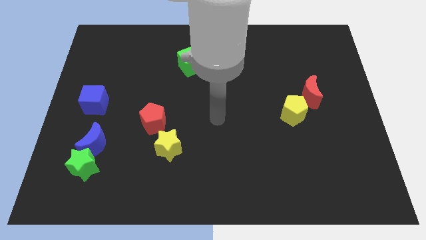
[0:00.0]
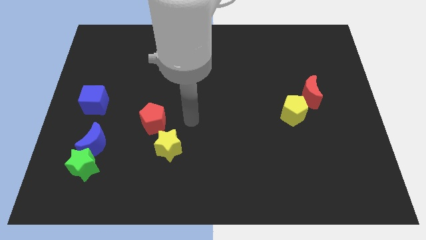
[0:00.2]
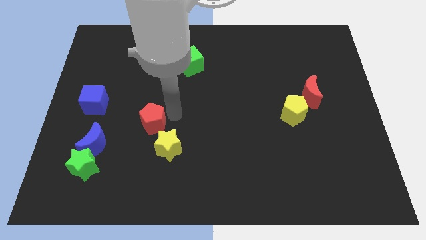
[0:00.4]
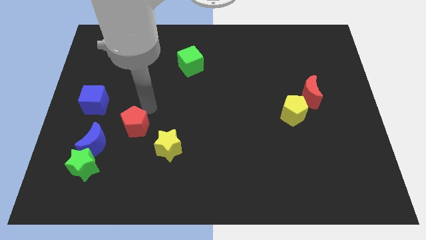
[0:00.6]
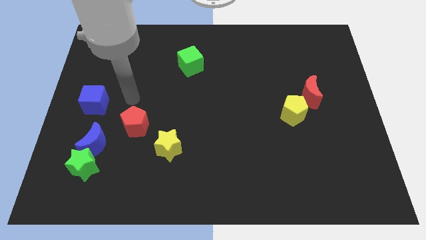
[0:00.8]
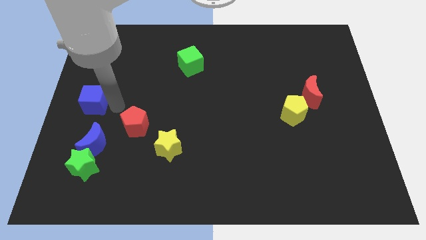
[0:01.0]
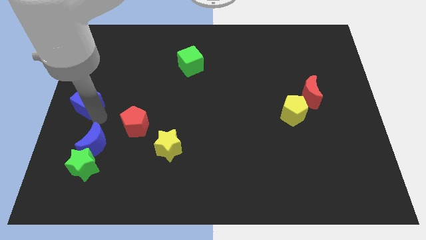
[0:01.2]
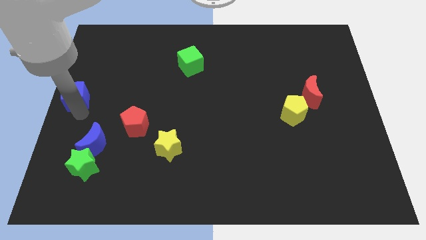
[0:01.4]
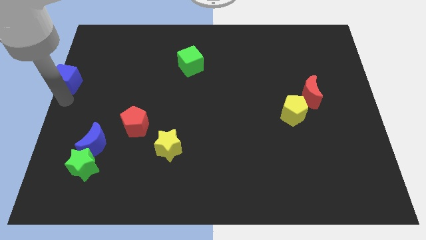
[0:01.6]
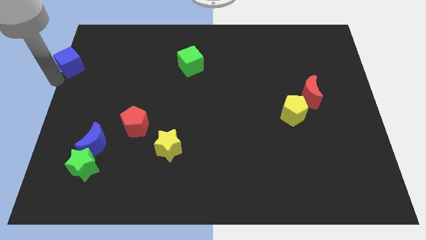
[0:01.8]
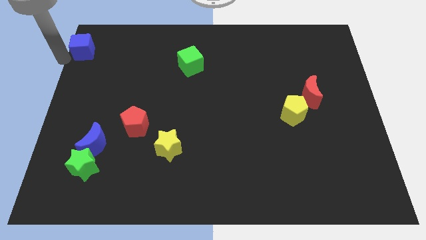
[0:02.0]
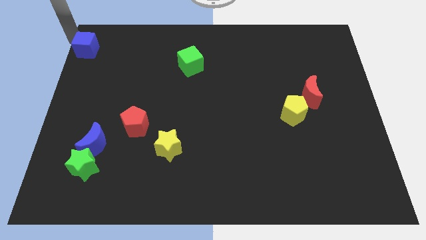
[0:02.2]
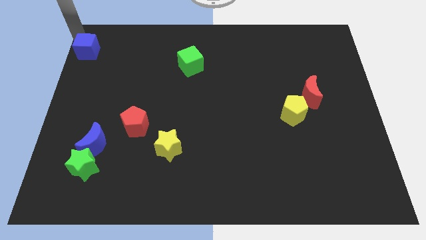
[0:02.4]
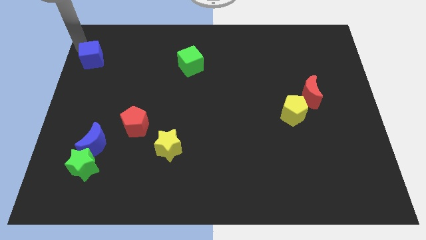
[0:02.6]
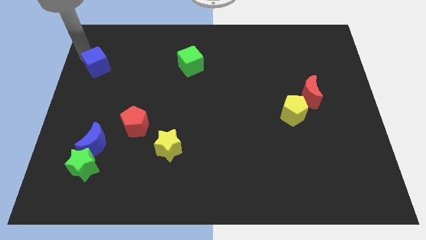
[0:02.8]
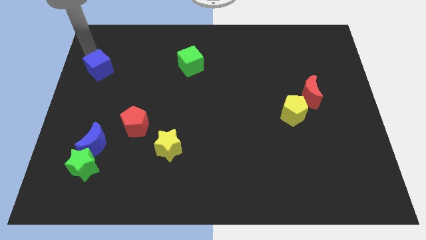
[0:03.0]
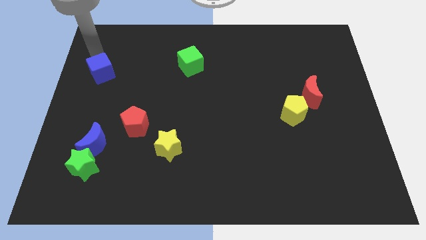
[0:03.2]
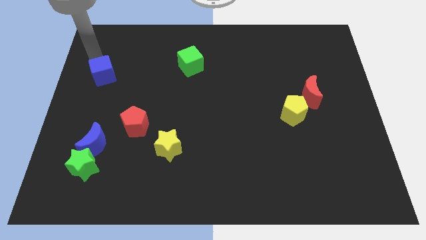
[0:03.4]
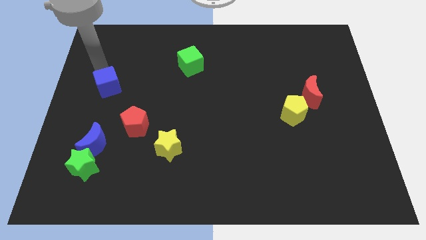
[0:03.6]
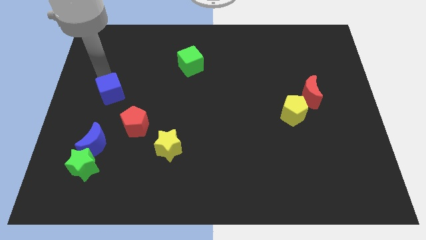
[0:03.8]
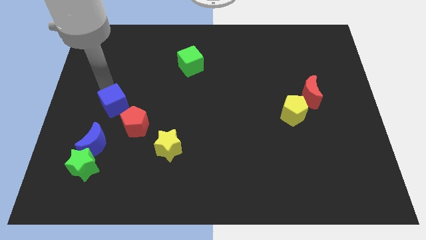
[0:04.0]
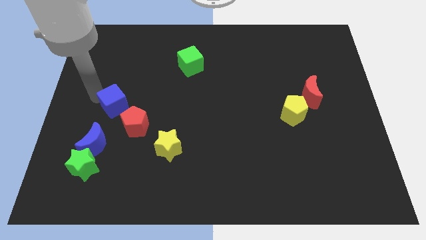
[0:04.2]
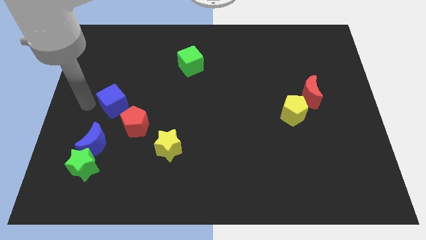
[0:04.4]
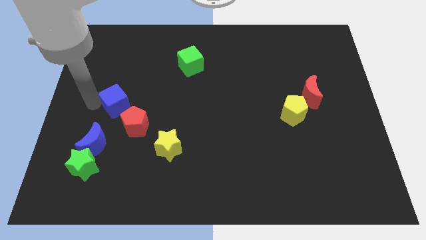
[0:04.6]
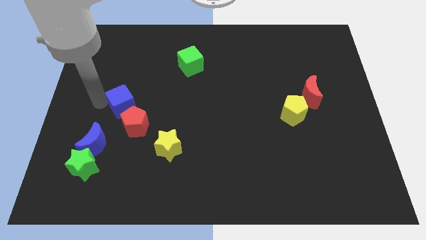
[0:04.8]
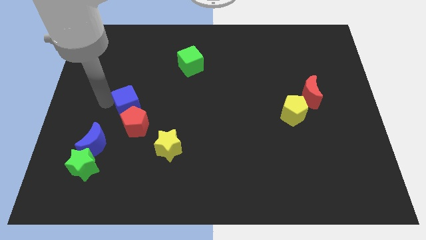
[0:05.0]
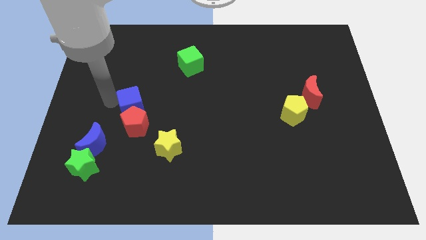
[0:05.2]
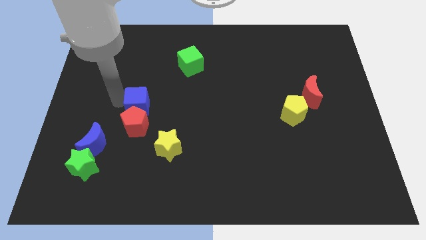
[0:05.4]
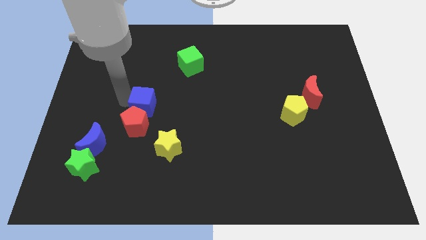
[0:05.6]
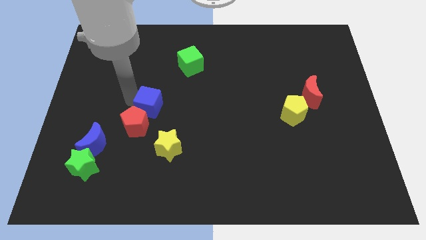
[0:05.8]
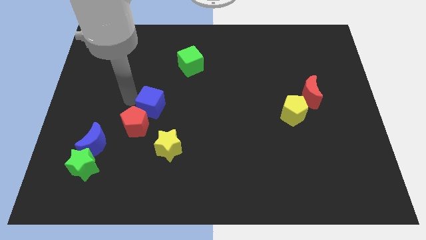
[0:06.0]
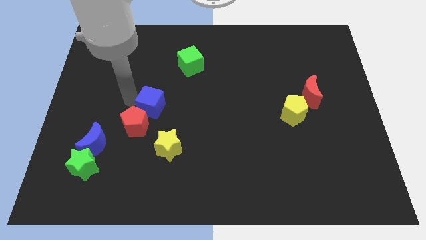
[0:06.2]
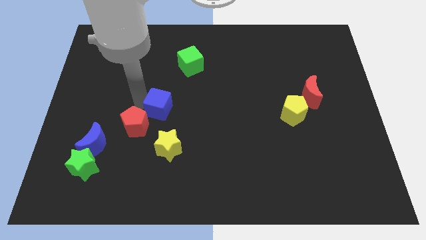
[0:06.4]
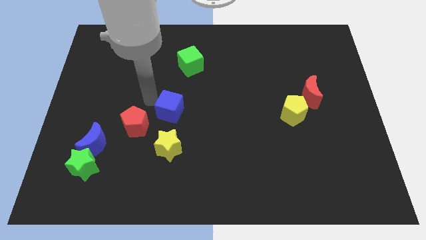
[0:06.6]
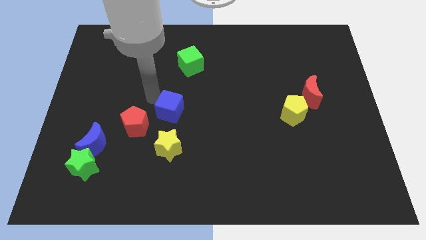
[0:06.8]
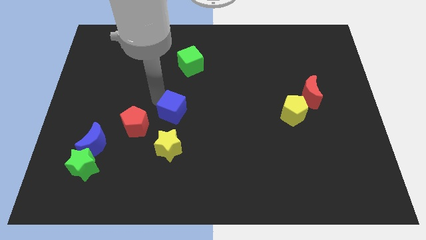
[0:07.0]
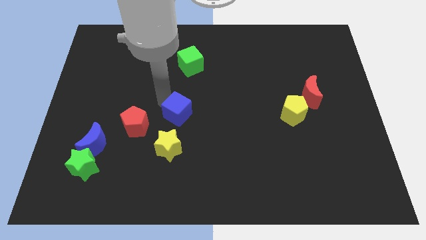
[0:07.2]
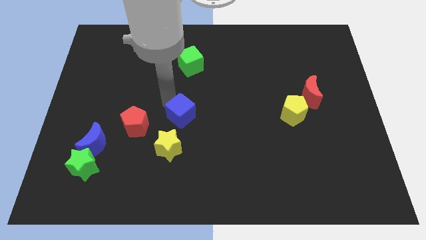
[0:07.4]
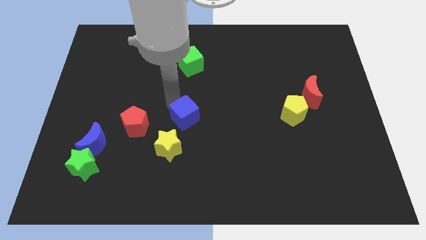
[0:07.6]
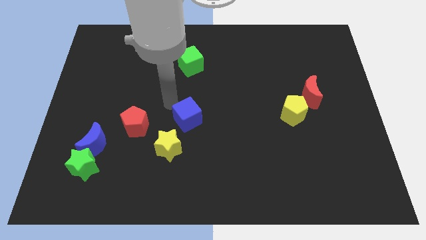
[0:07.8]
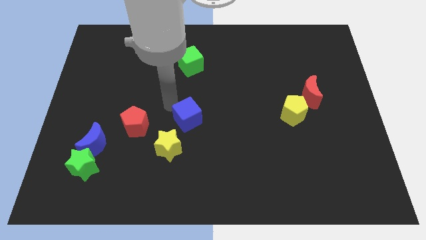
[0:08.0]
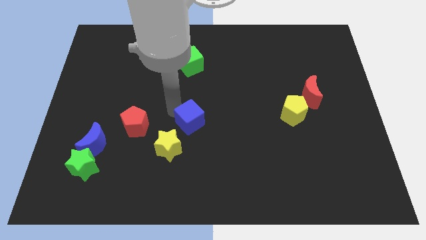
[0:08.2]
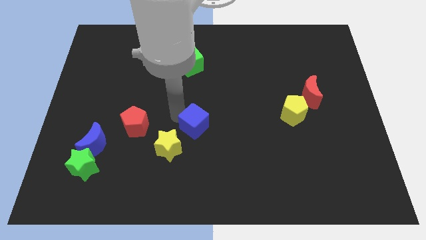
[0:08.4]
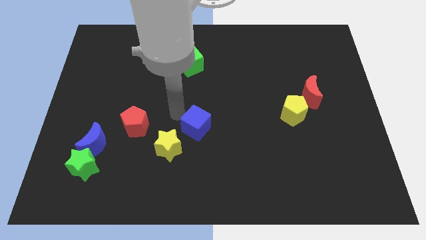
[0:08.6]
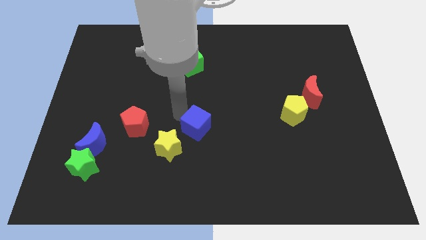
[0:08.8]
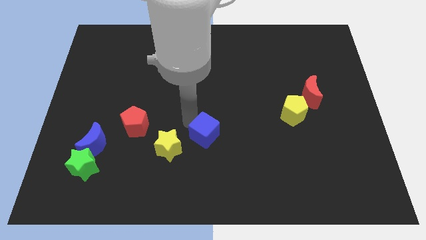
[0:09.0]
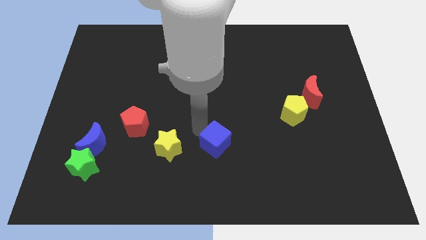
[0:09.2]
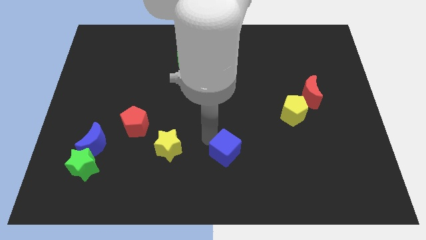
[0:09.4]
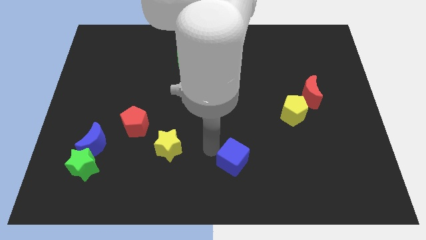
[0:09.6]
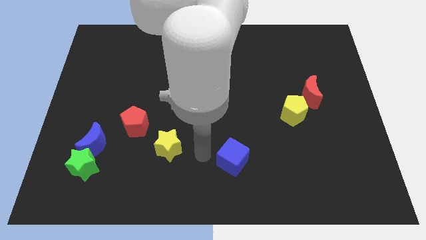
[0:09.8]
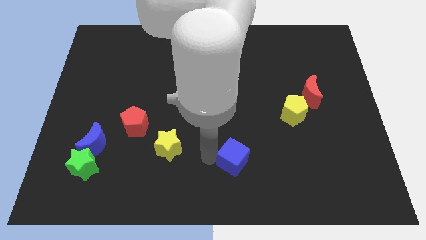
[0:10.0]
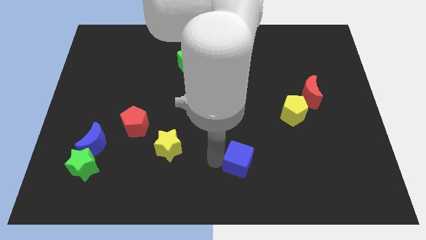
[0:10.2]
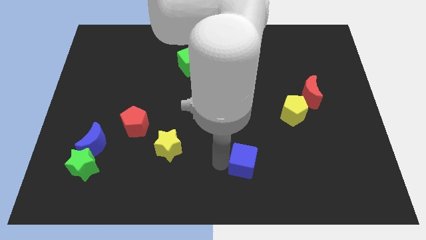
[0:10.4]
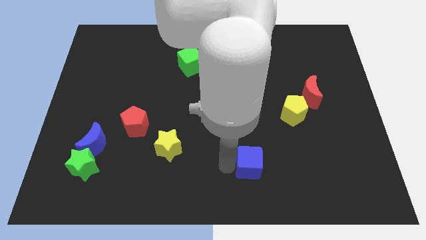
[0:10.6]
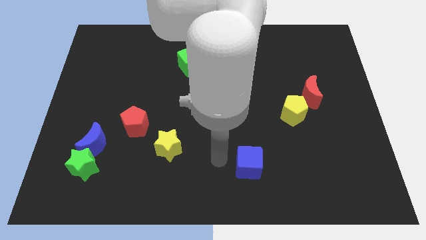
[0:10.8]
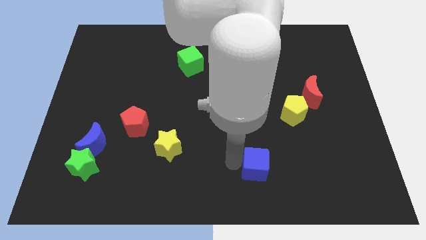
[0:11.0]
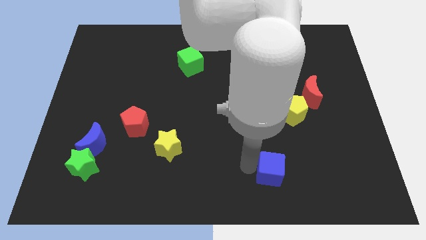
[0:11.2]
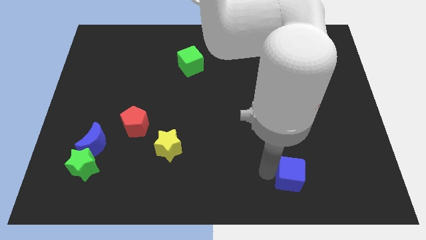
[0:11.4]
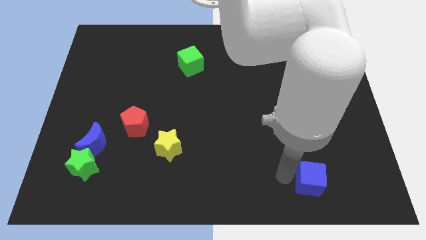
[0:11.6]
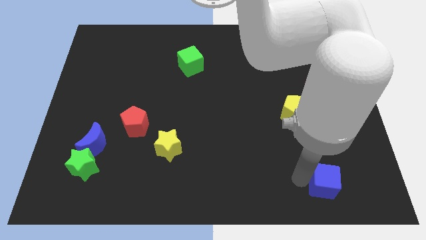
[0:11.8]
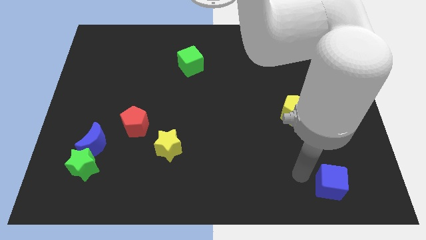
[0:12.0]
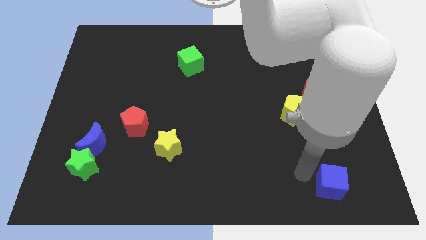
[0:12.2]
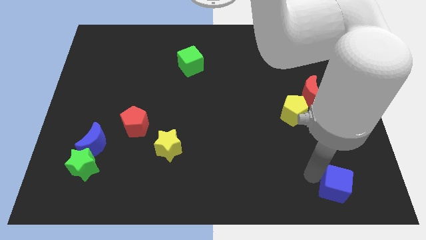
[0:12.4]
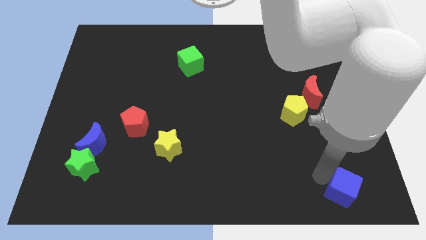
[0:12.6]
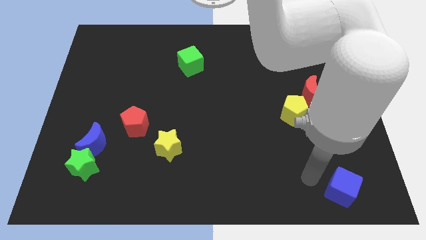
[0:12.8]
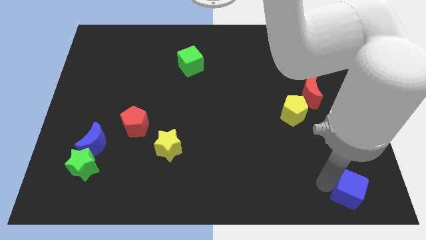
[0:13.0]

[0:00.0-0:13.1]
put the blue cube to the bottom right of the board
